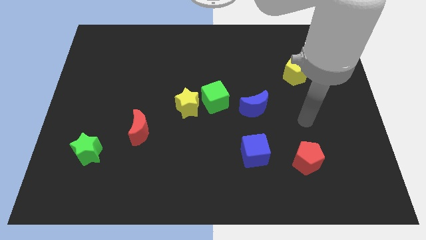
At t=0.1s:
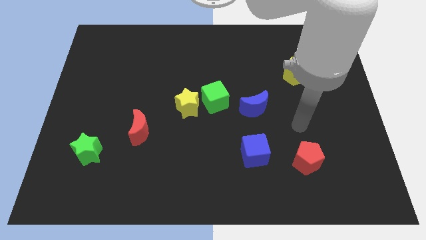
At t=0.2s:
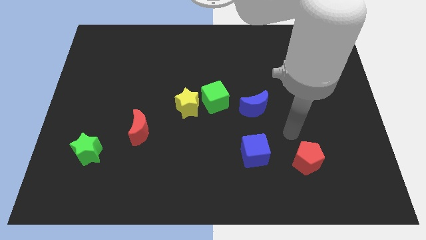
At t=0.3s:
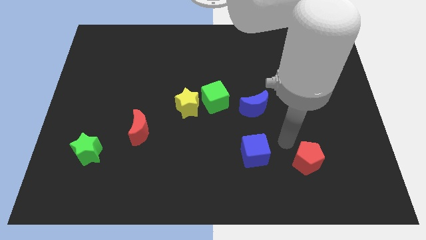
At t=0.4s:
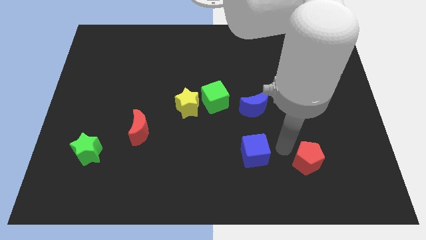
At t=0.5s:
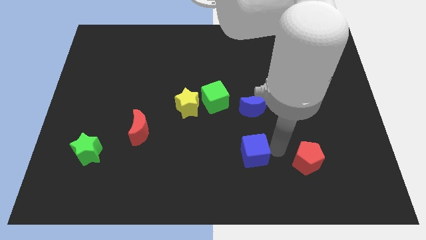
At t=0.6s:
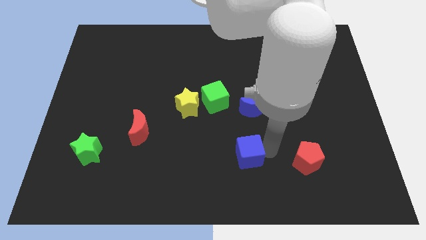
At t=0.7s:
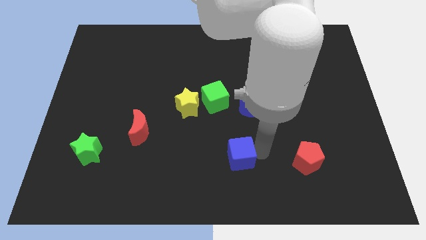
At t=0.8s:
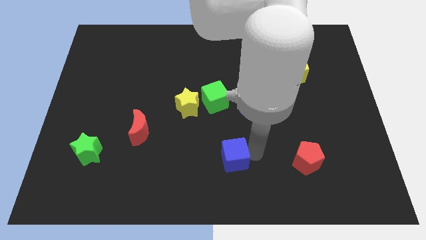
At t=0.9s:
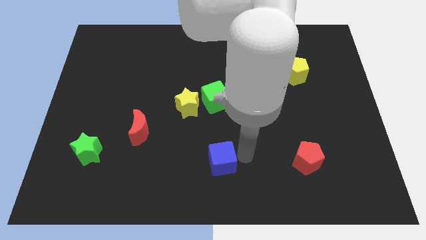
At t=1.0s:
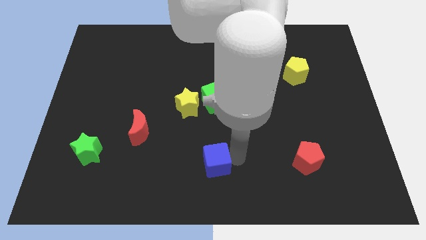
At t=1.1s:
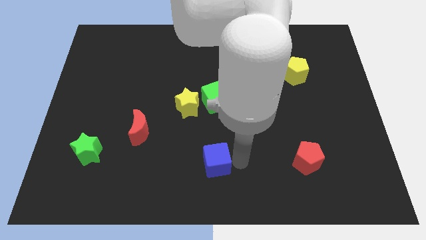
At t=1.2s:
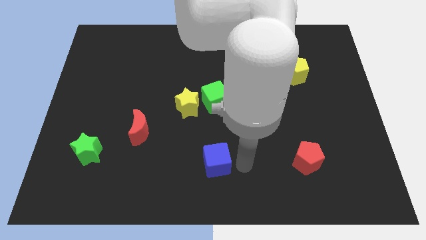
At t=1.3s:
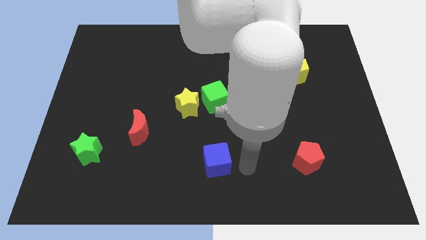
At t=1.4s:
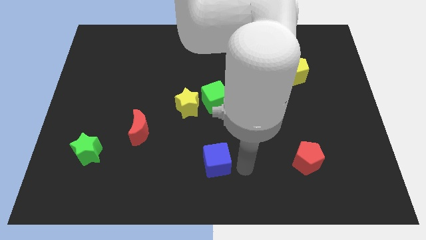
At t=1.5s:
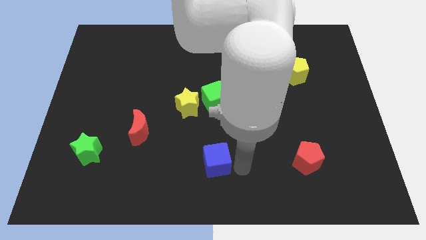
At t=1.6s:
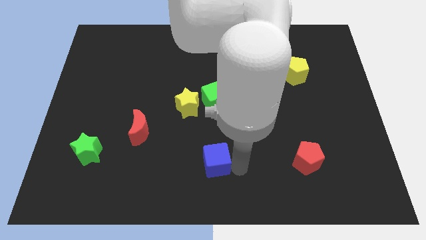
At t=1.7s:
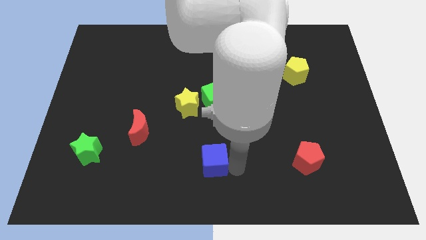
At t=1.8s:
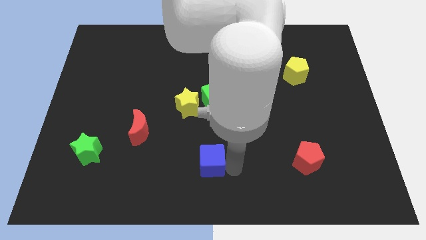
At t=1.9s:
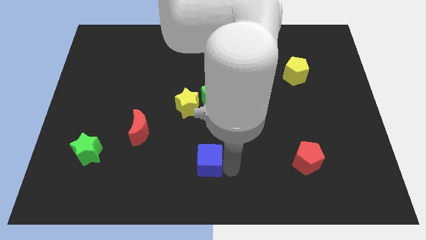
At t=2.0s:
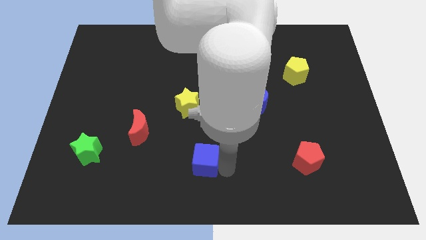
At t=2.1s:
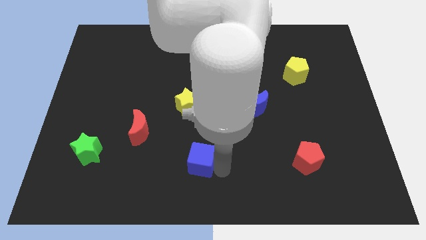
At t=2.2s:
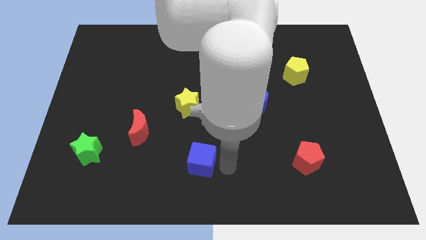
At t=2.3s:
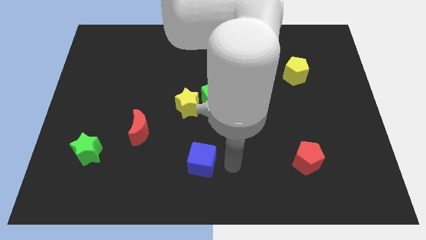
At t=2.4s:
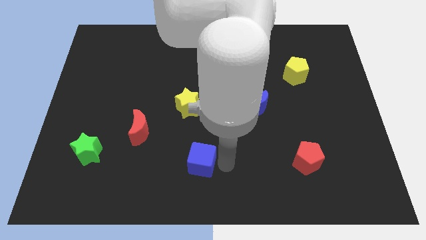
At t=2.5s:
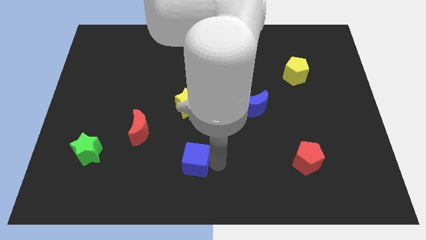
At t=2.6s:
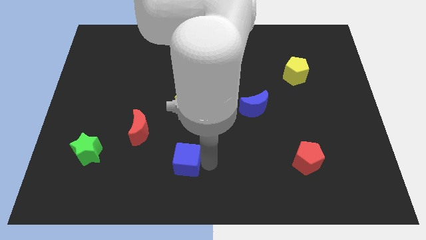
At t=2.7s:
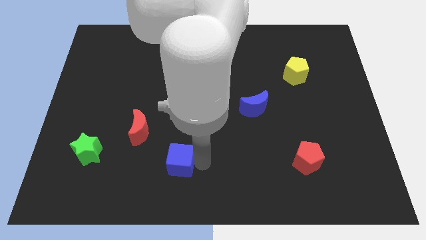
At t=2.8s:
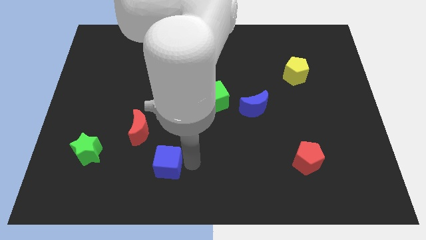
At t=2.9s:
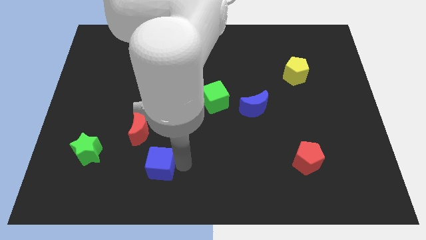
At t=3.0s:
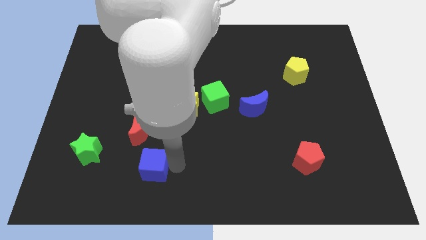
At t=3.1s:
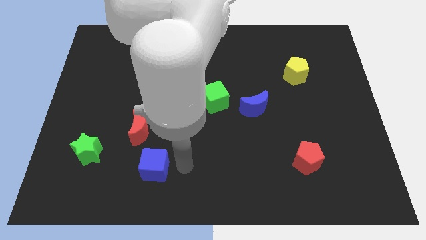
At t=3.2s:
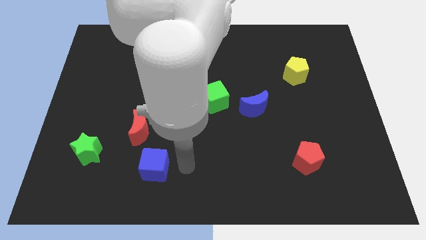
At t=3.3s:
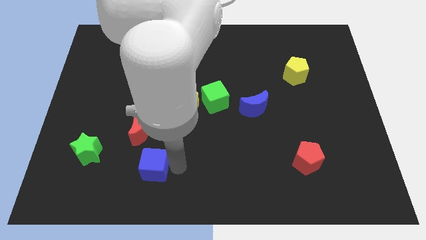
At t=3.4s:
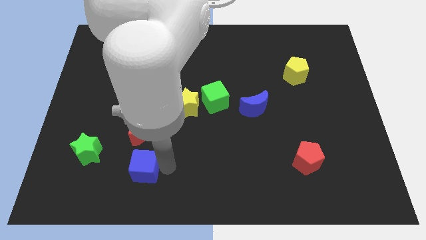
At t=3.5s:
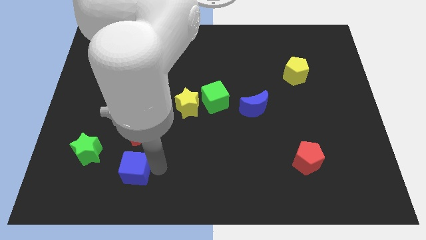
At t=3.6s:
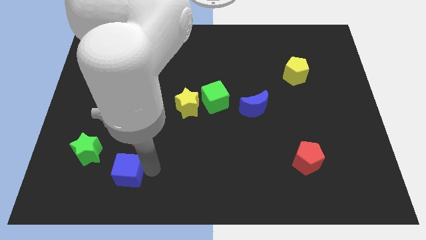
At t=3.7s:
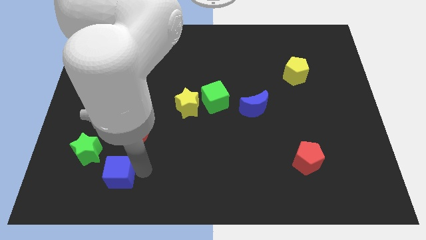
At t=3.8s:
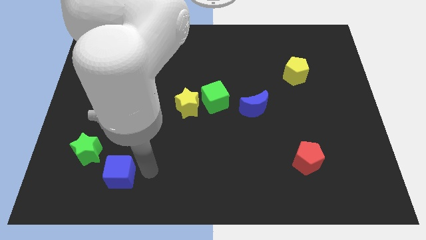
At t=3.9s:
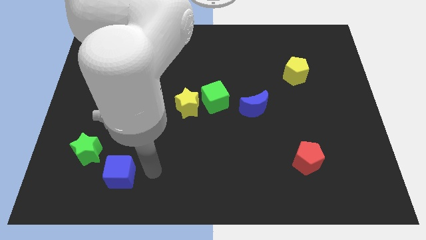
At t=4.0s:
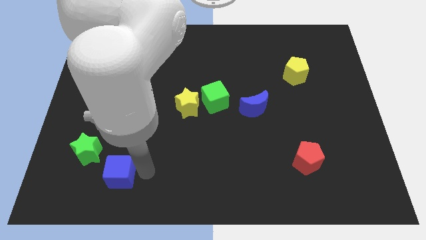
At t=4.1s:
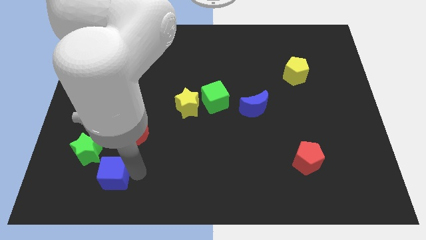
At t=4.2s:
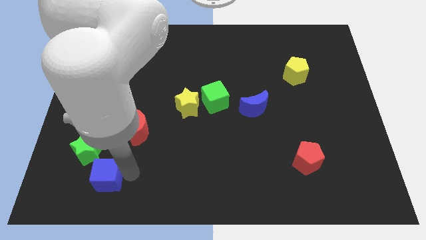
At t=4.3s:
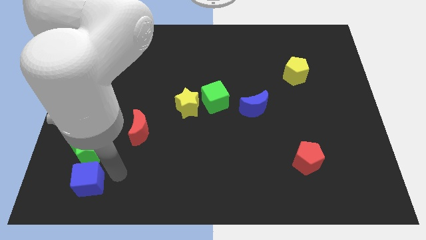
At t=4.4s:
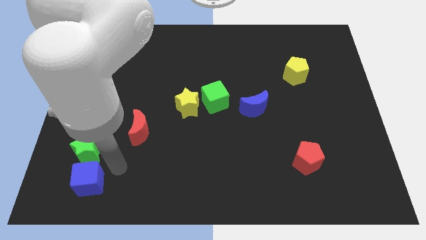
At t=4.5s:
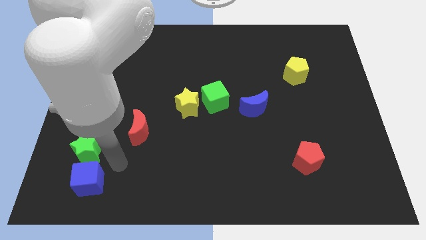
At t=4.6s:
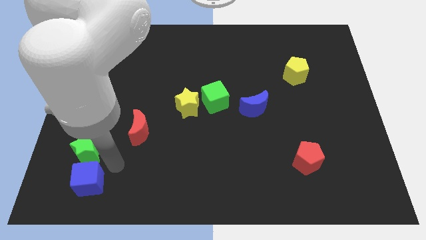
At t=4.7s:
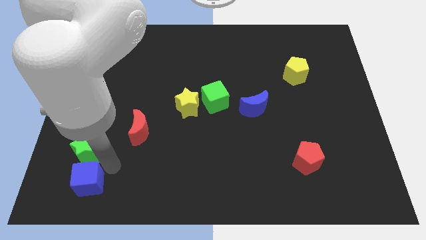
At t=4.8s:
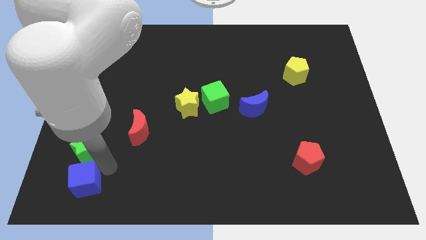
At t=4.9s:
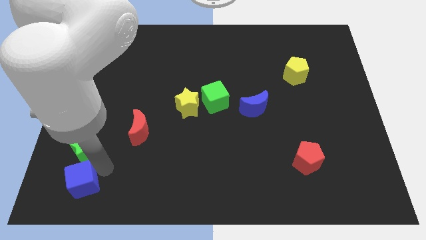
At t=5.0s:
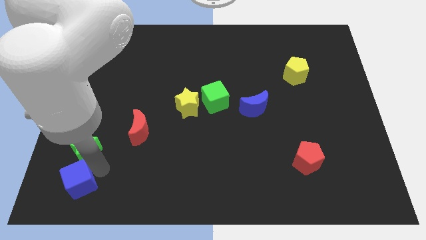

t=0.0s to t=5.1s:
slide the blue cube to the bottom left

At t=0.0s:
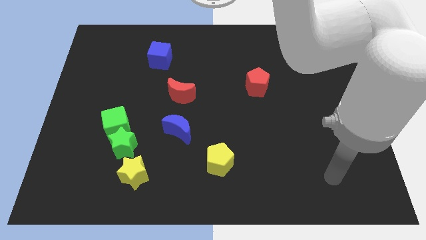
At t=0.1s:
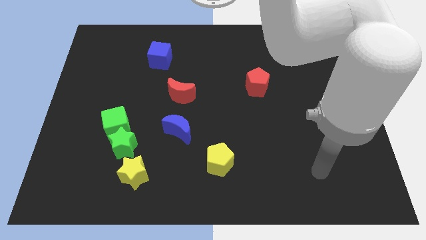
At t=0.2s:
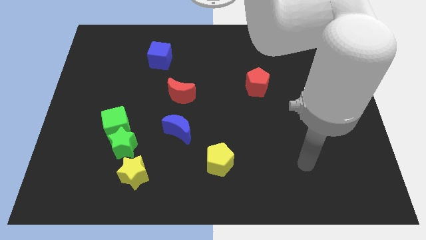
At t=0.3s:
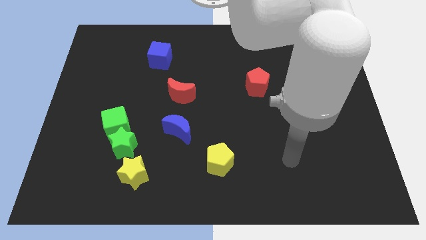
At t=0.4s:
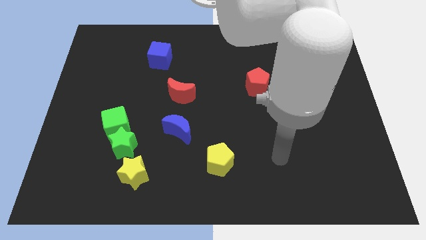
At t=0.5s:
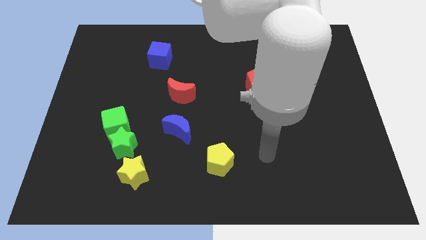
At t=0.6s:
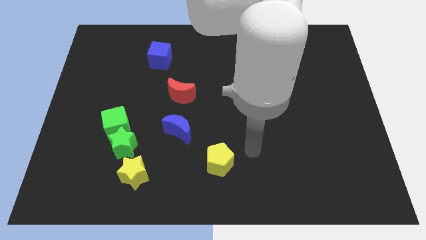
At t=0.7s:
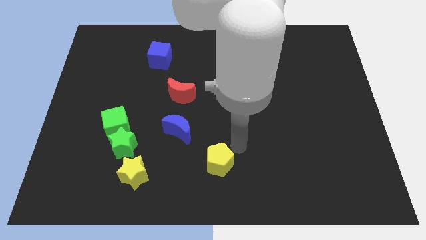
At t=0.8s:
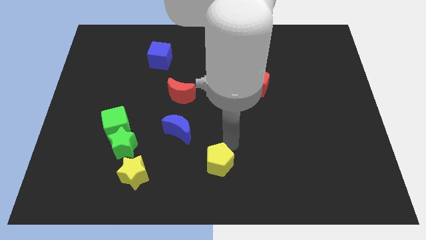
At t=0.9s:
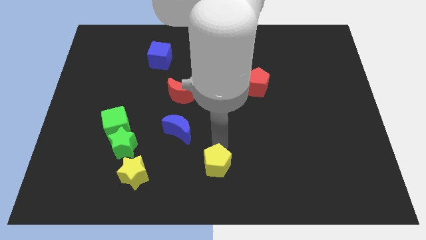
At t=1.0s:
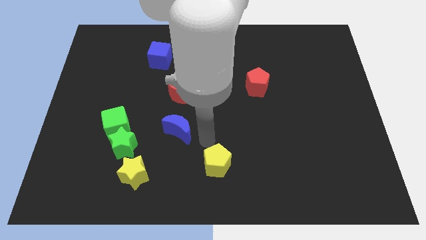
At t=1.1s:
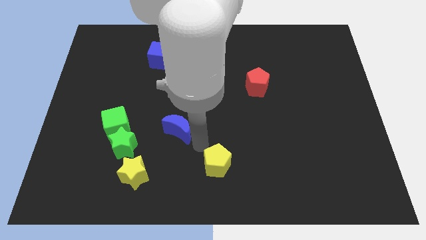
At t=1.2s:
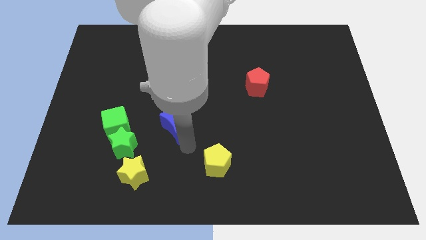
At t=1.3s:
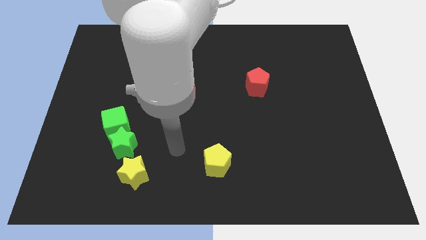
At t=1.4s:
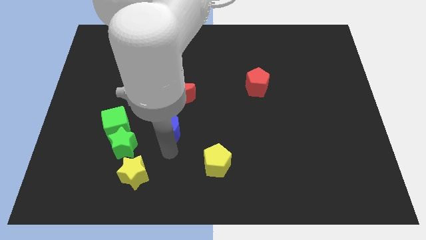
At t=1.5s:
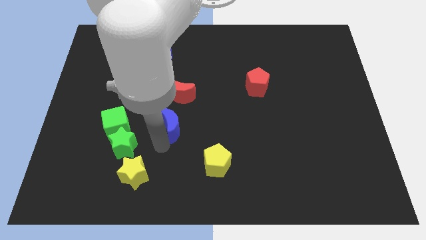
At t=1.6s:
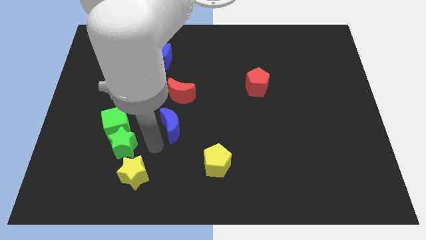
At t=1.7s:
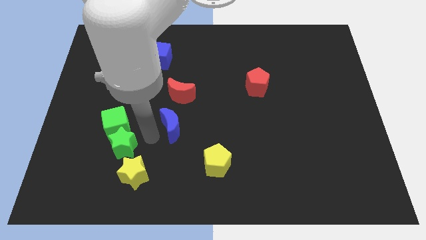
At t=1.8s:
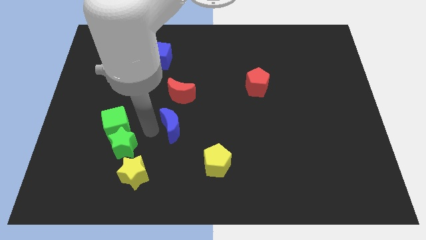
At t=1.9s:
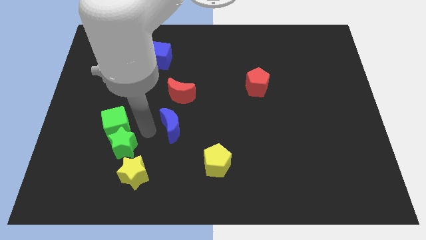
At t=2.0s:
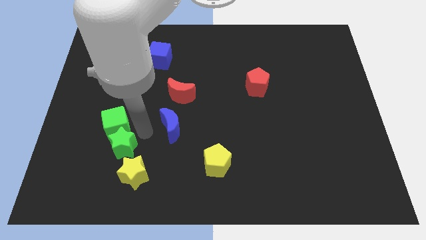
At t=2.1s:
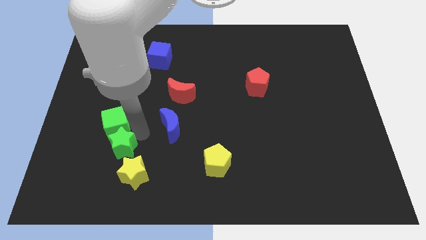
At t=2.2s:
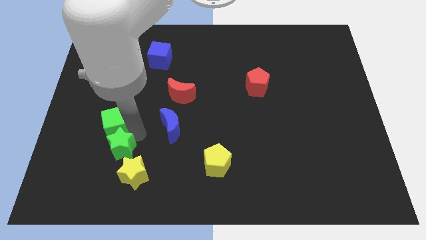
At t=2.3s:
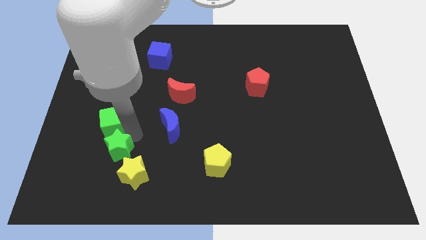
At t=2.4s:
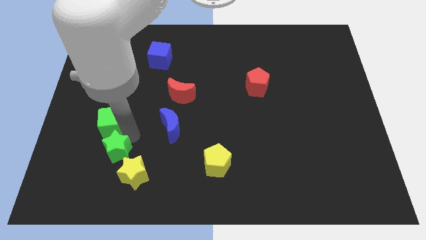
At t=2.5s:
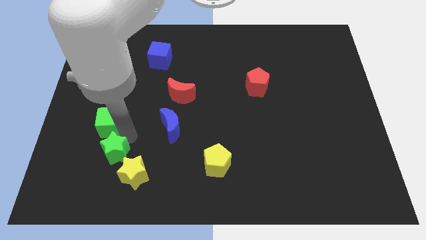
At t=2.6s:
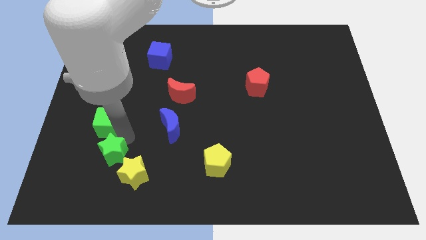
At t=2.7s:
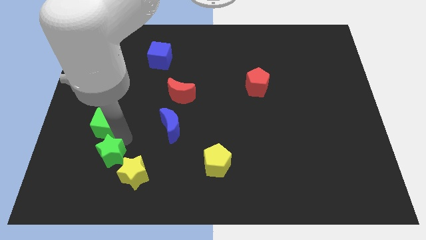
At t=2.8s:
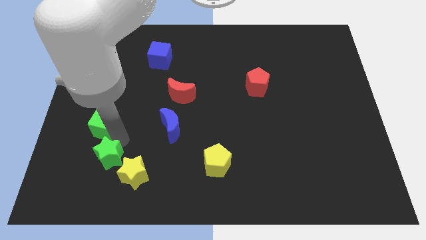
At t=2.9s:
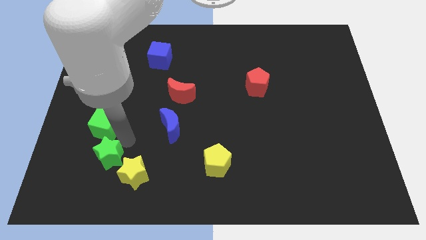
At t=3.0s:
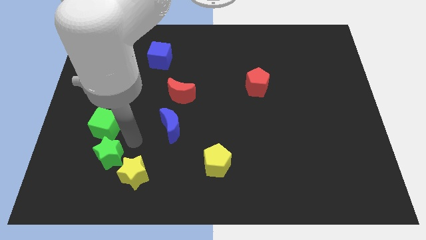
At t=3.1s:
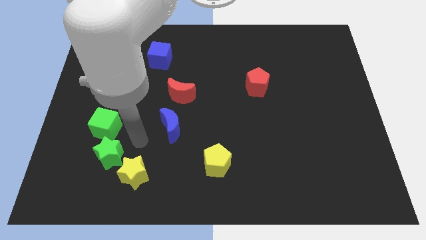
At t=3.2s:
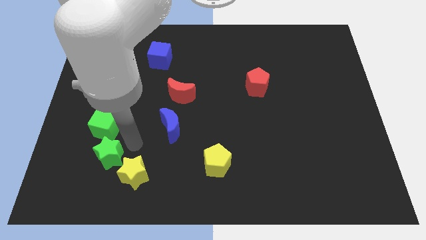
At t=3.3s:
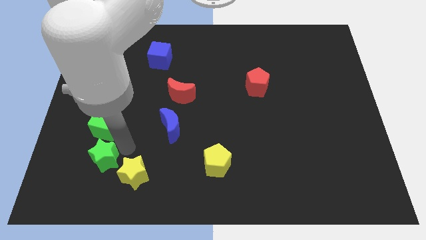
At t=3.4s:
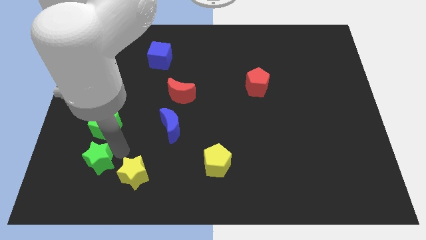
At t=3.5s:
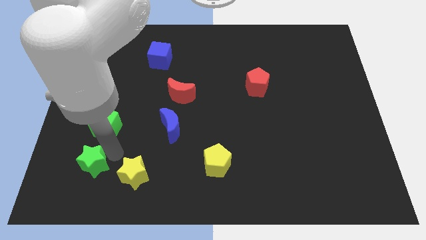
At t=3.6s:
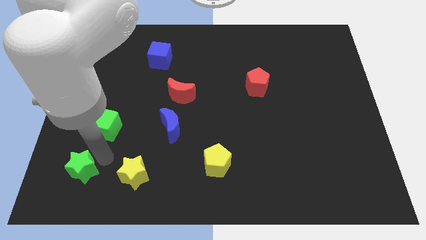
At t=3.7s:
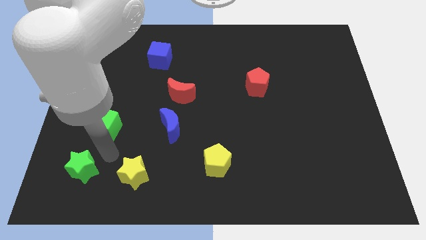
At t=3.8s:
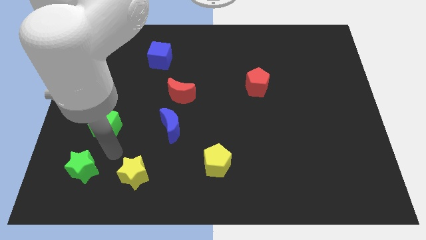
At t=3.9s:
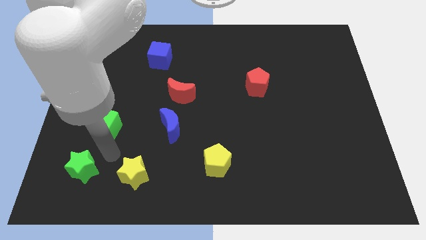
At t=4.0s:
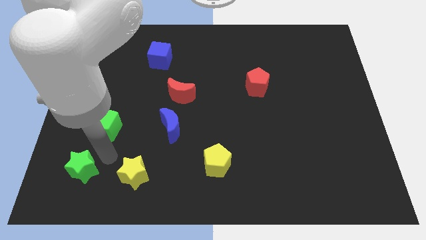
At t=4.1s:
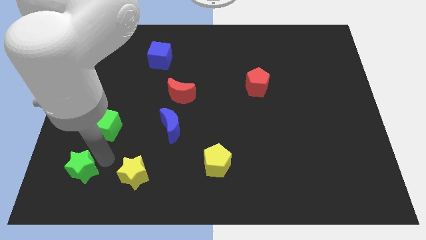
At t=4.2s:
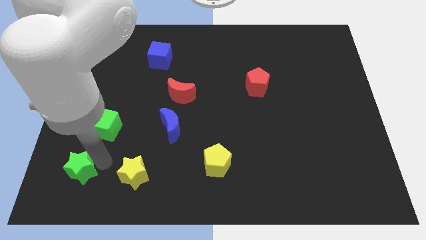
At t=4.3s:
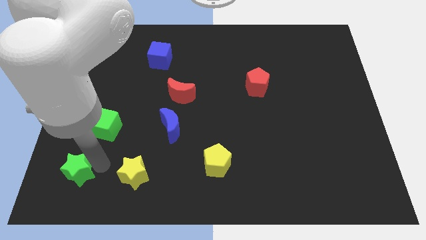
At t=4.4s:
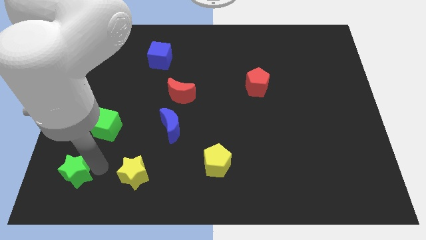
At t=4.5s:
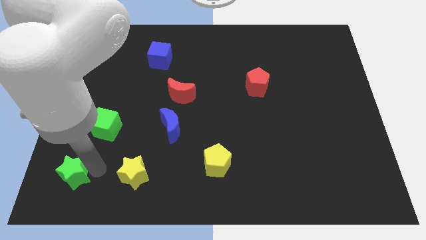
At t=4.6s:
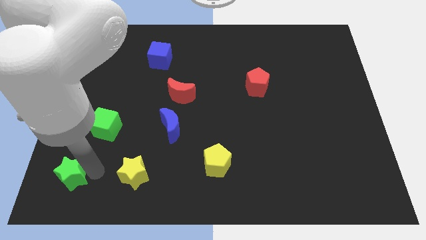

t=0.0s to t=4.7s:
push the green star to the lower left corner
